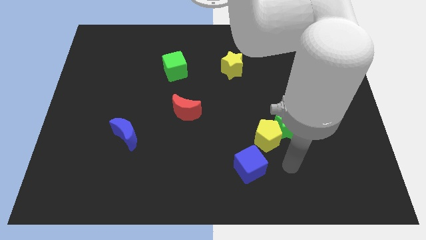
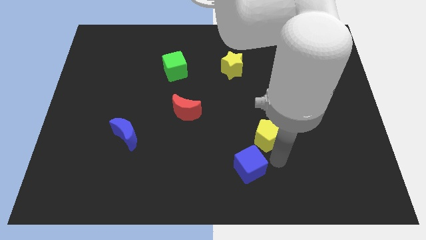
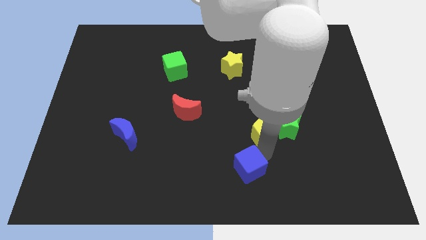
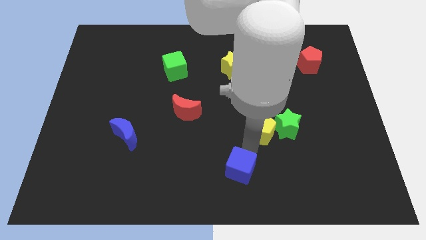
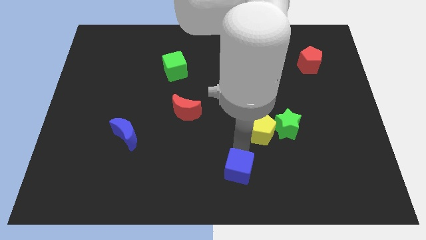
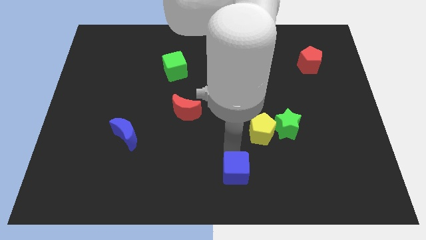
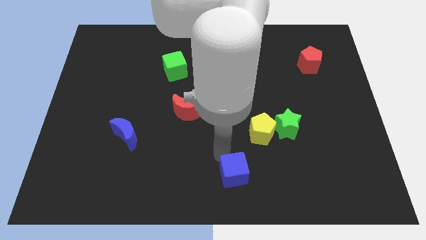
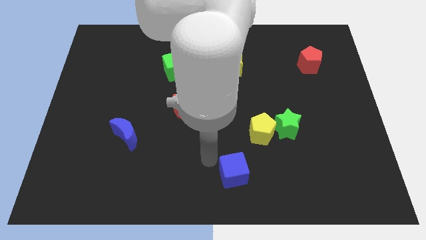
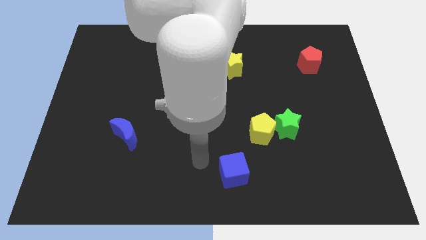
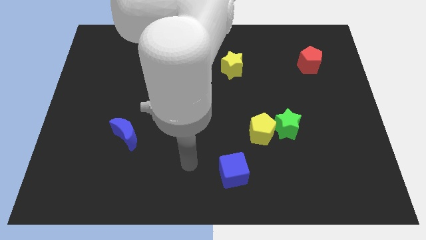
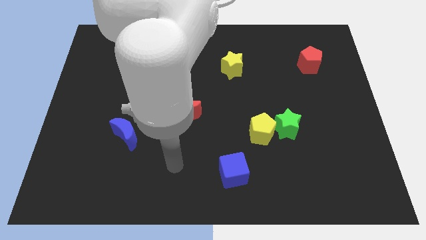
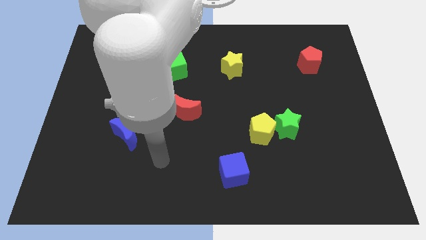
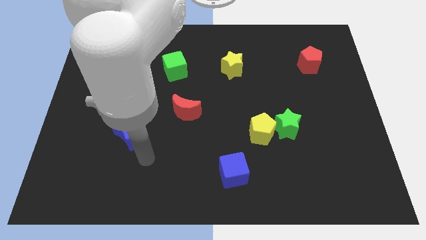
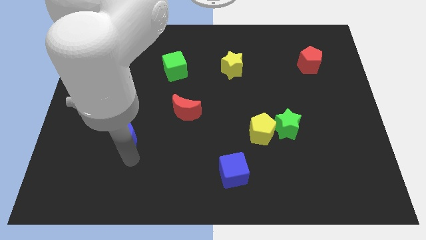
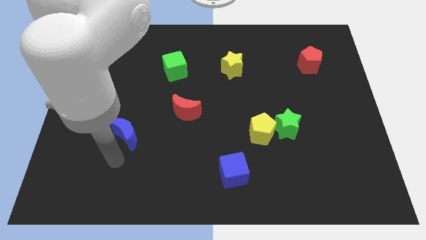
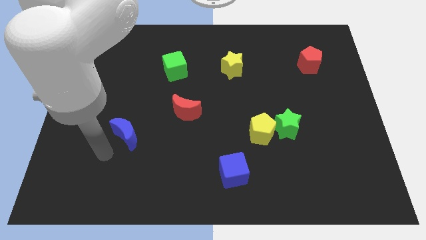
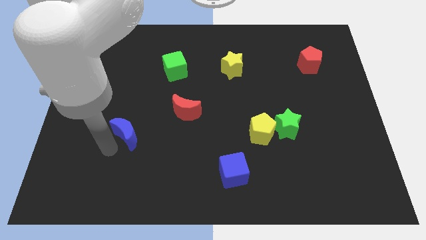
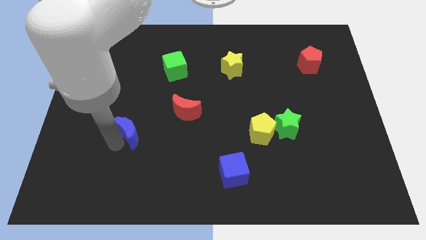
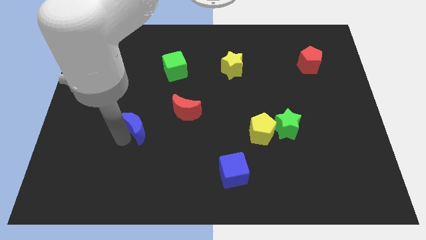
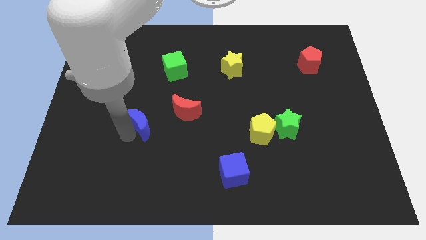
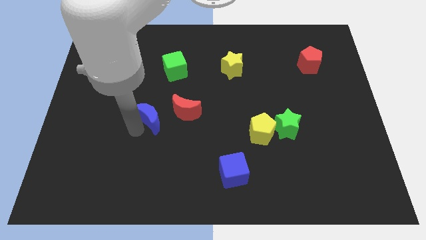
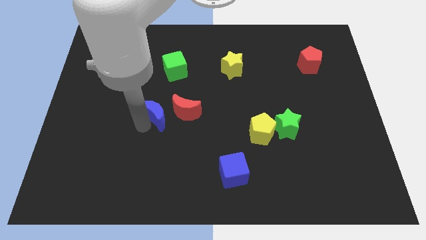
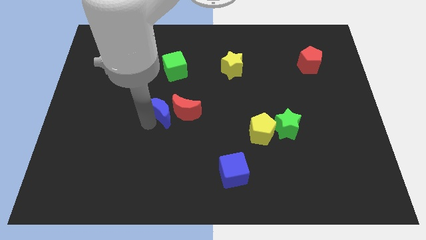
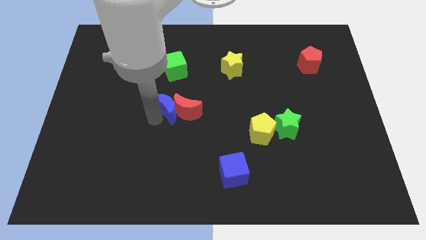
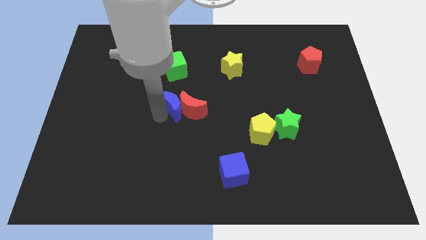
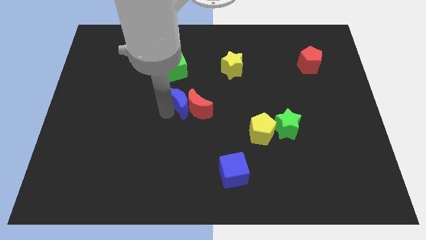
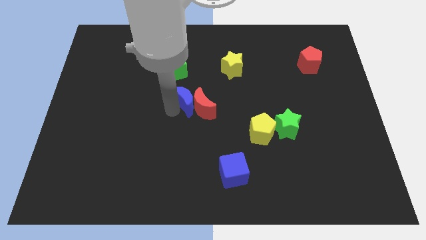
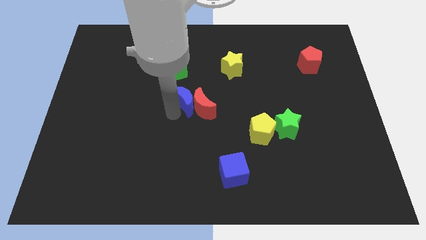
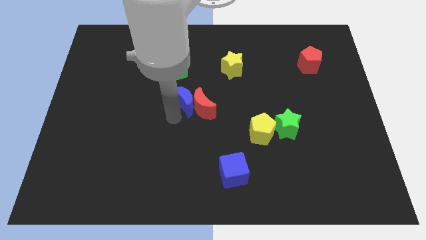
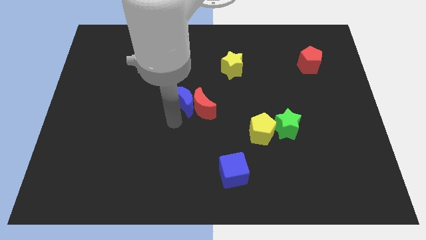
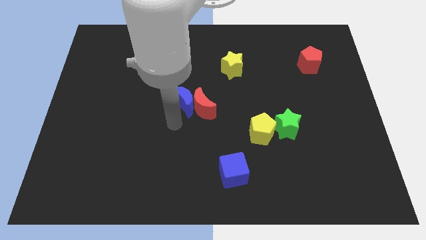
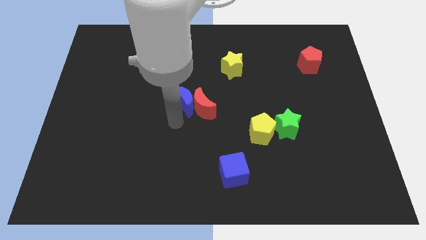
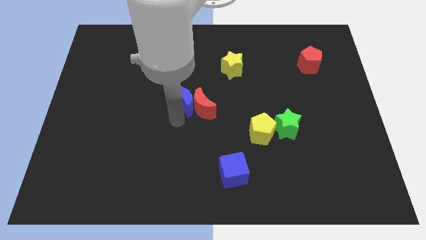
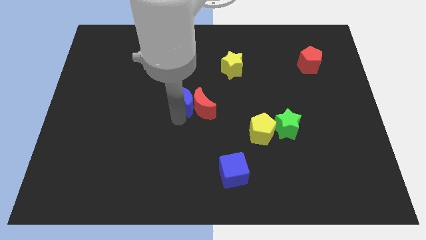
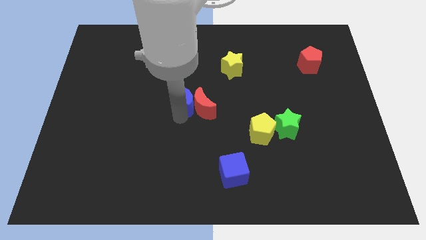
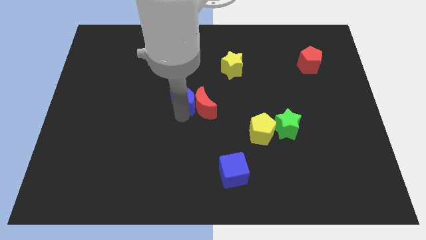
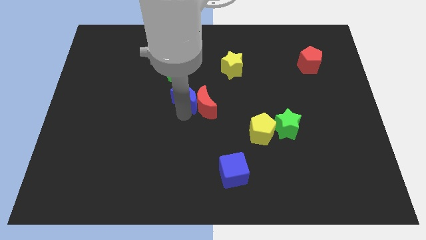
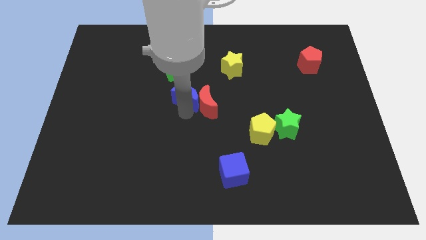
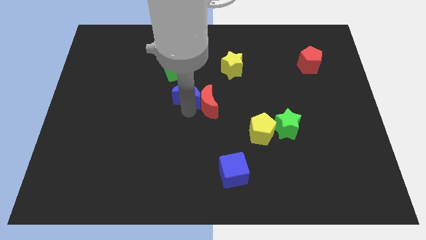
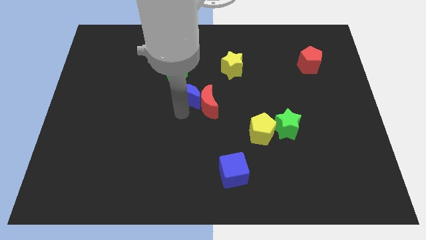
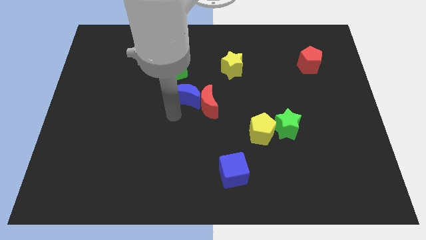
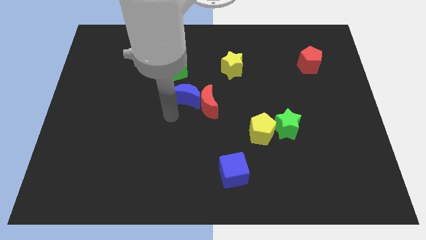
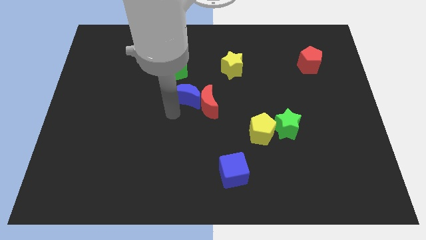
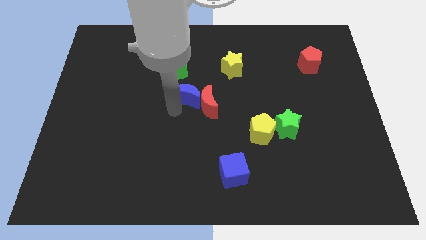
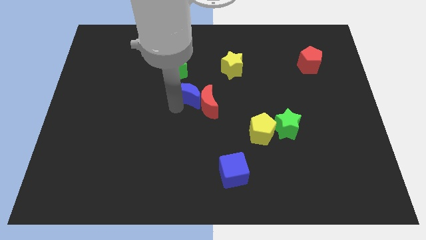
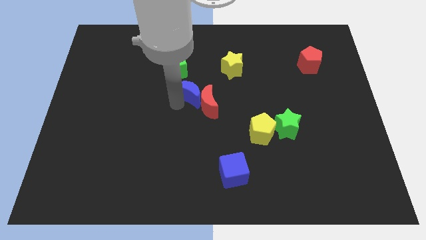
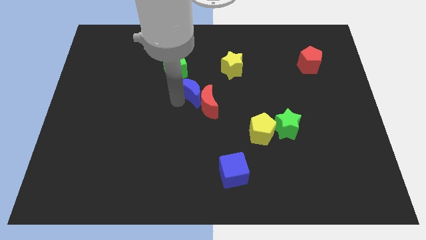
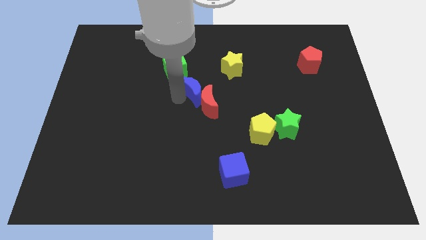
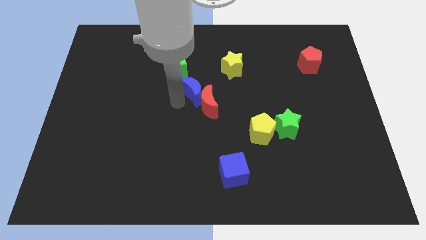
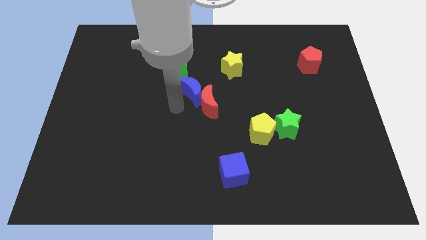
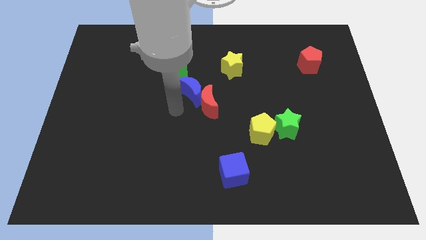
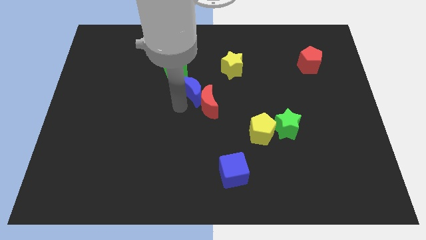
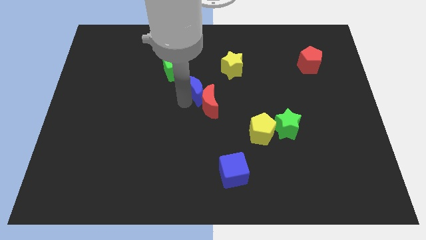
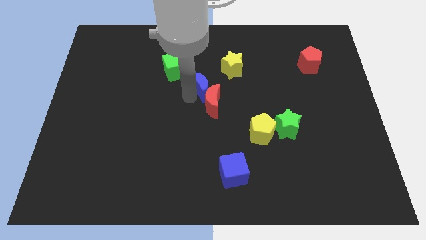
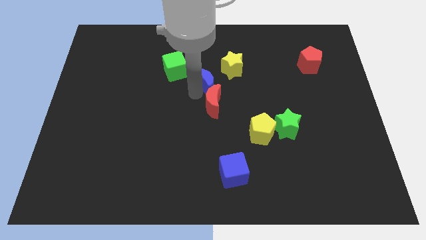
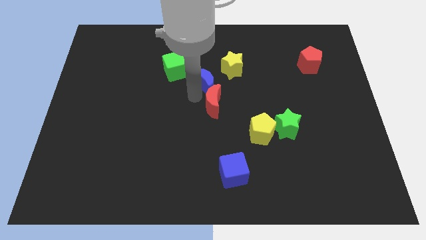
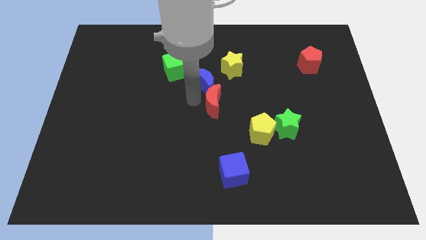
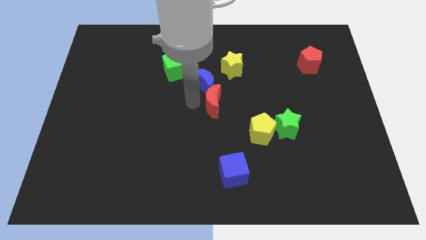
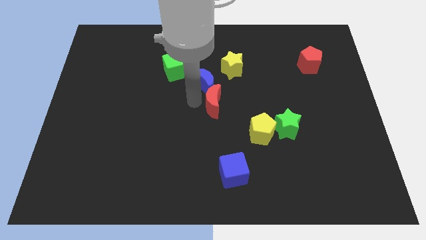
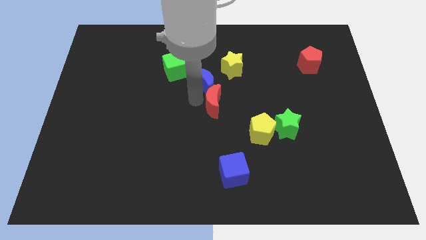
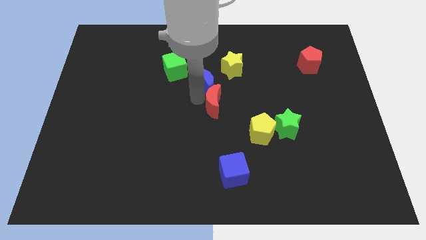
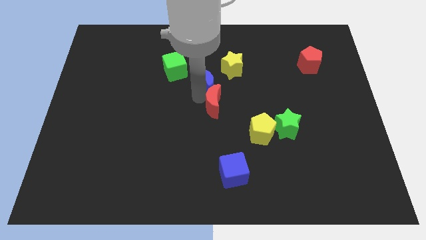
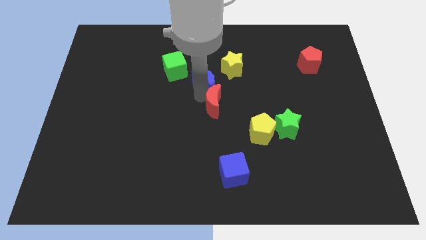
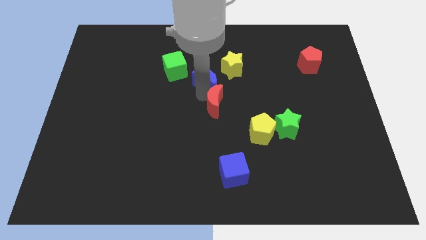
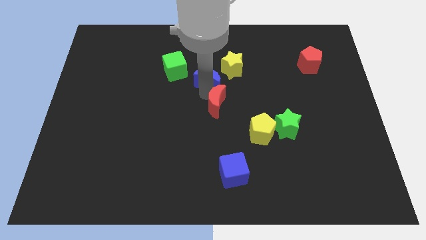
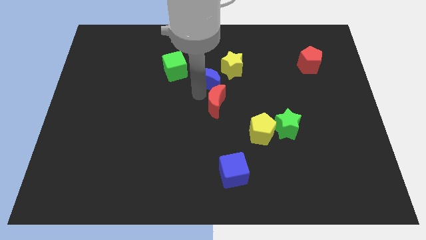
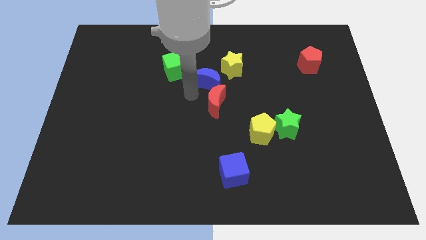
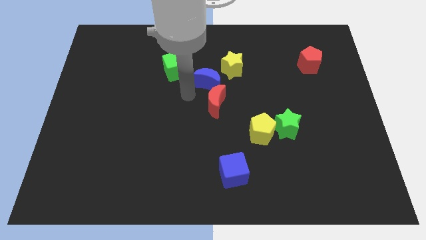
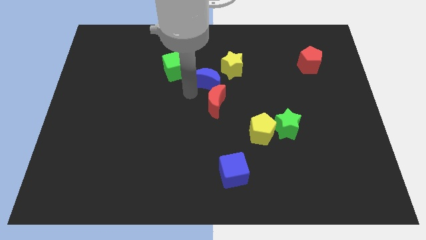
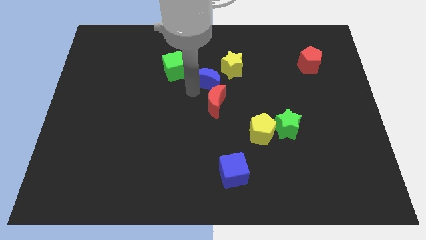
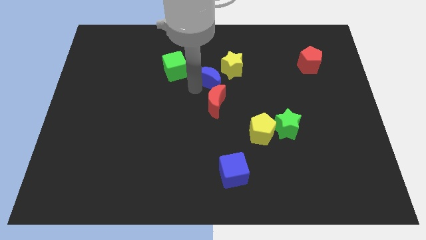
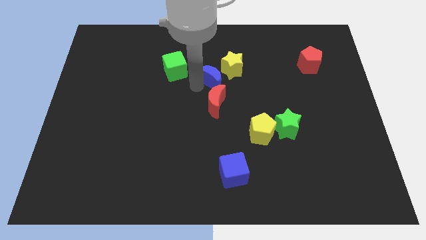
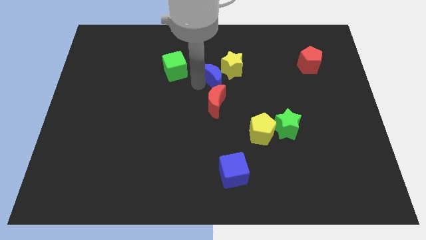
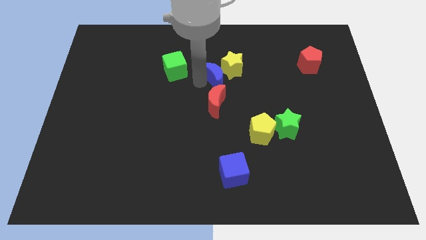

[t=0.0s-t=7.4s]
move the blue moon close to the yellow star
